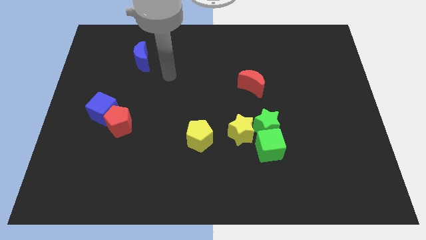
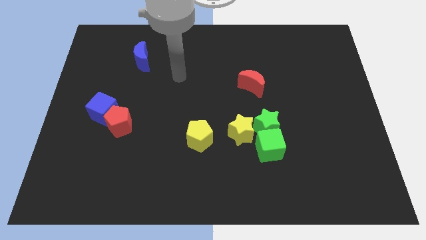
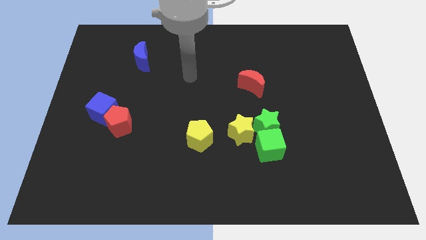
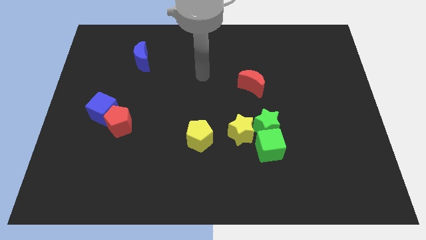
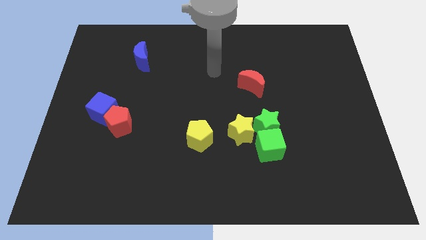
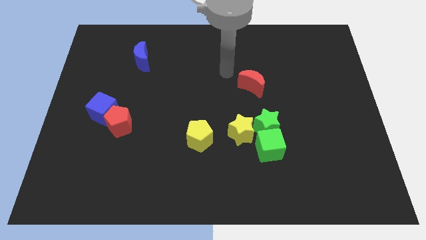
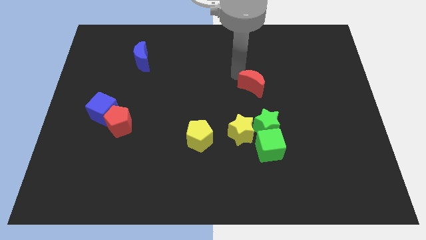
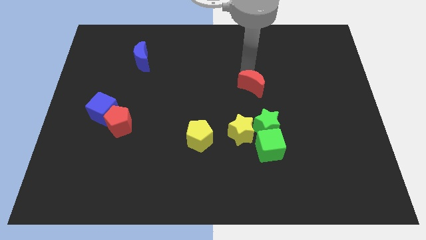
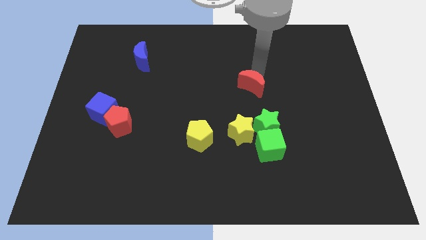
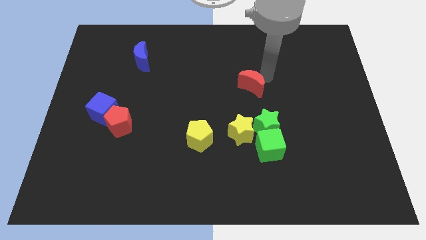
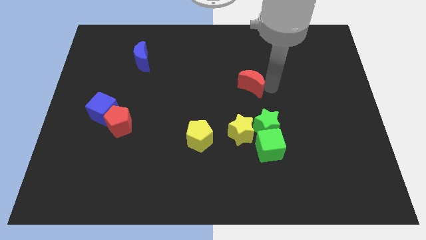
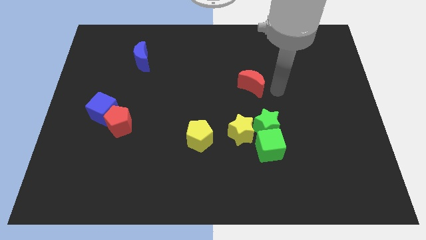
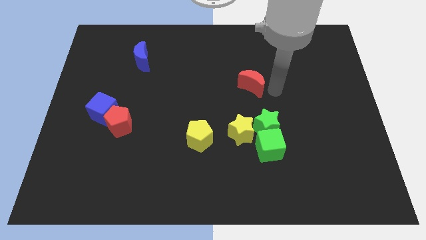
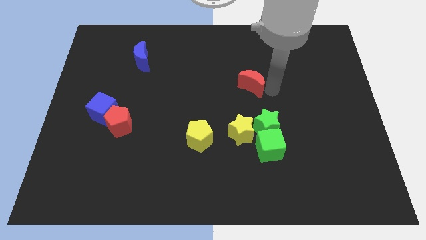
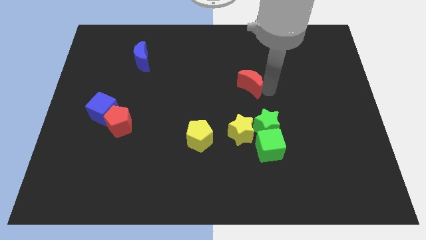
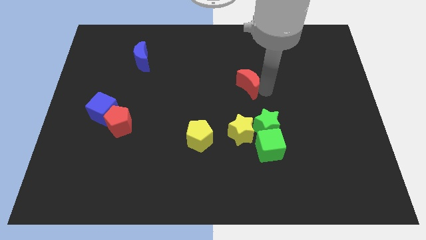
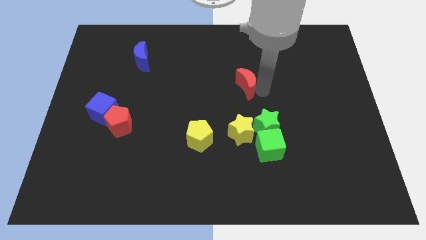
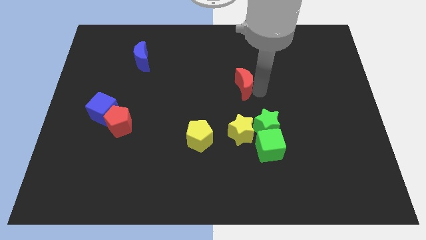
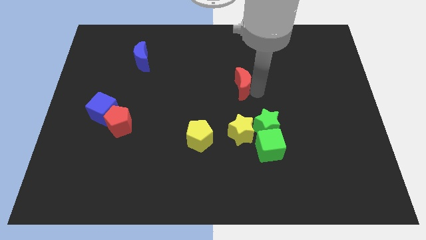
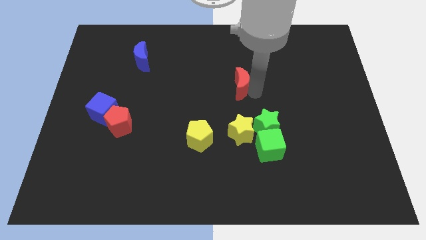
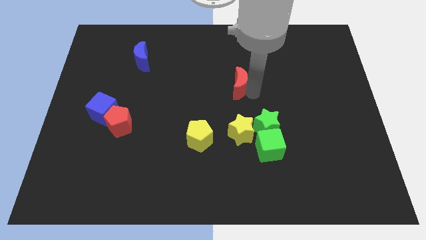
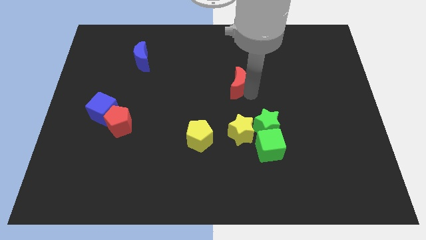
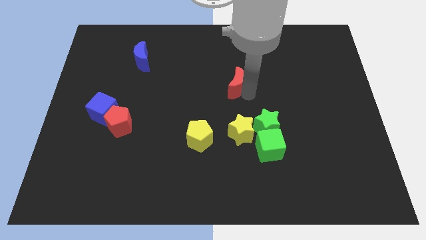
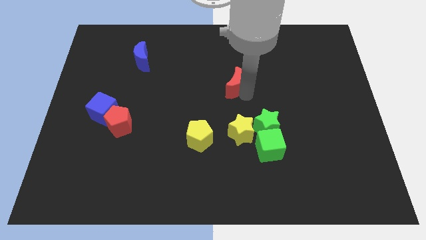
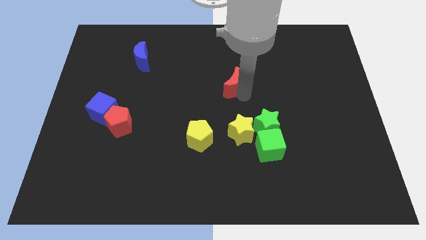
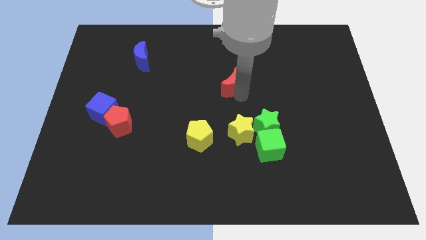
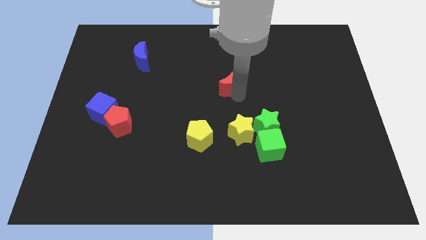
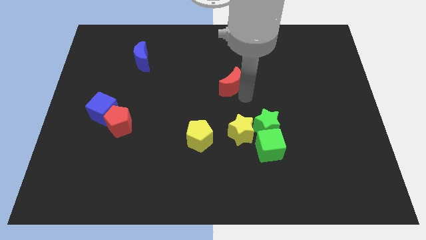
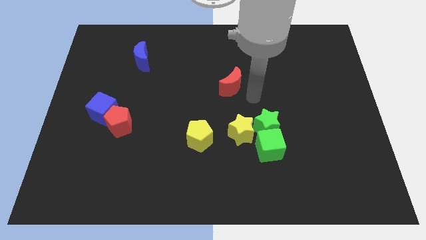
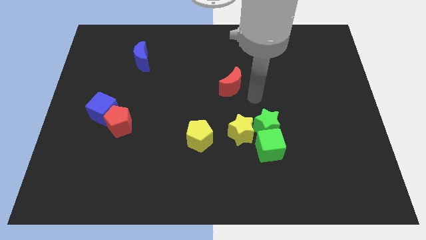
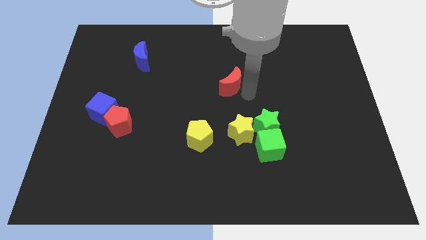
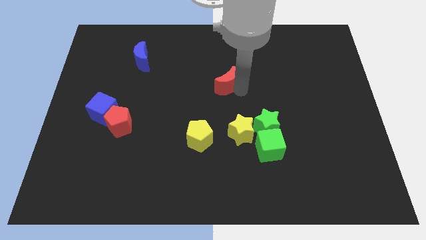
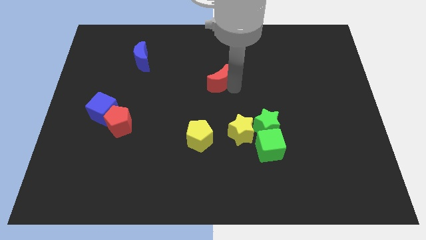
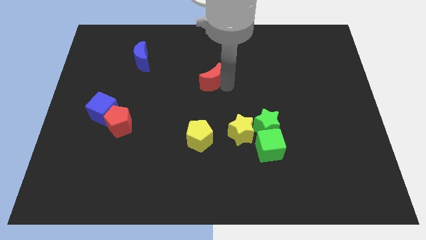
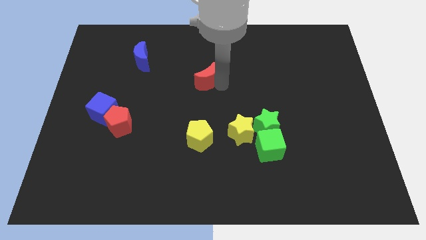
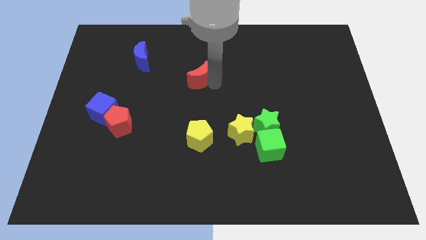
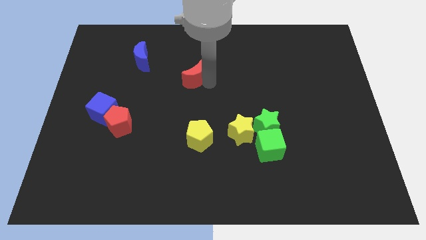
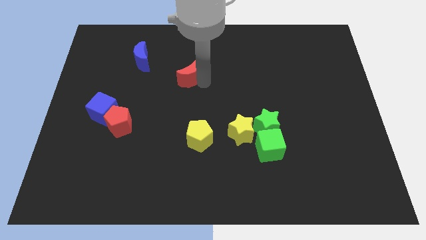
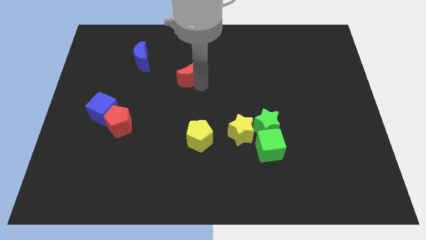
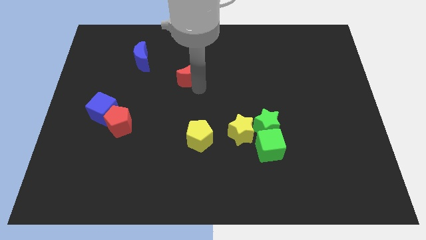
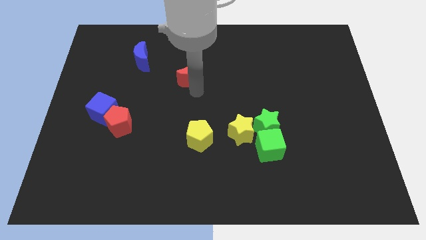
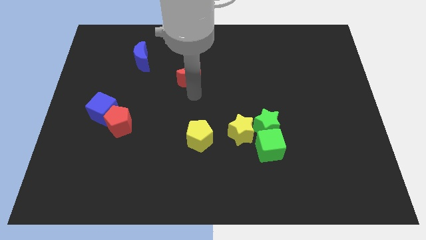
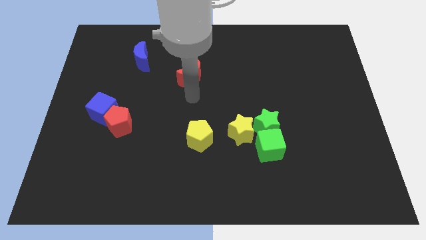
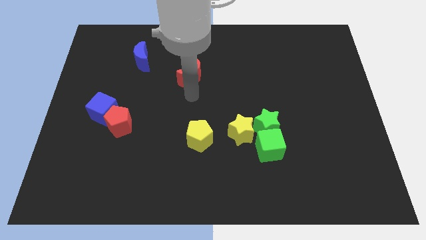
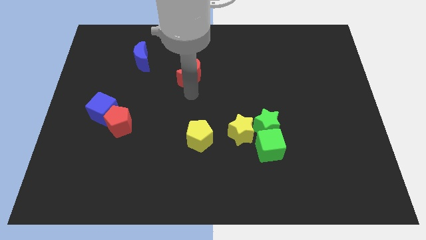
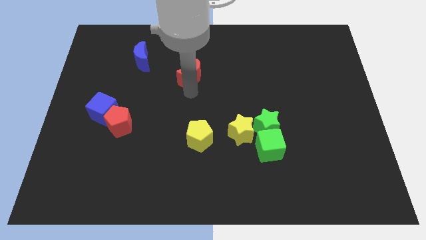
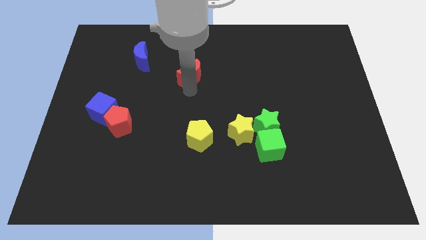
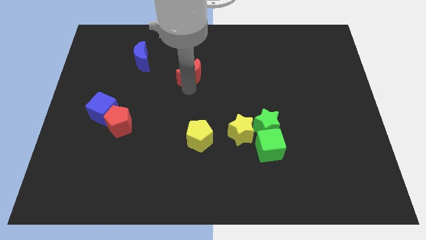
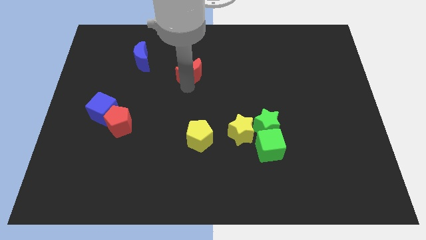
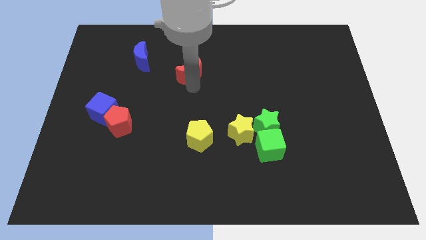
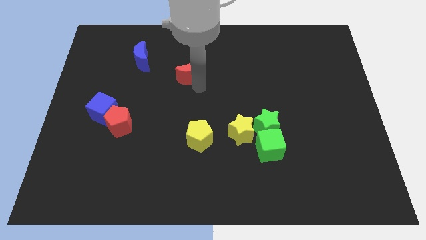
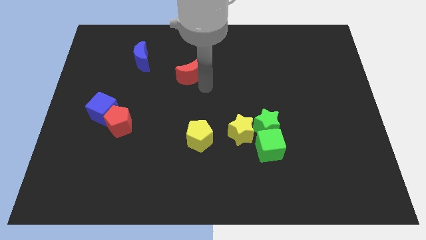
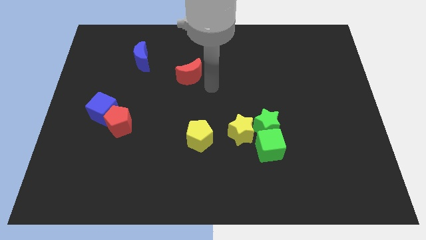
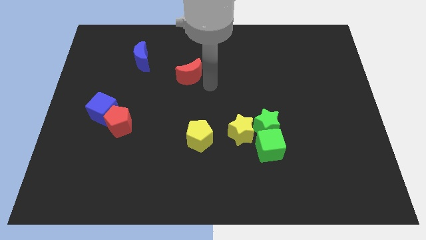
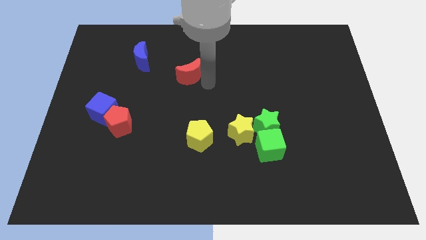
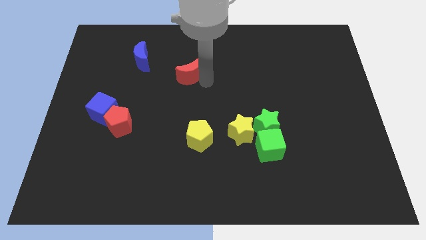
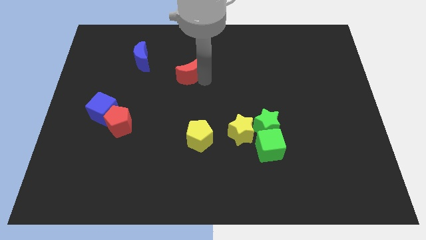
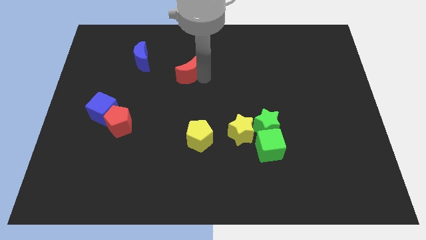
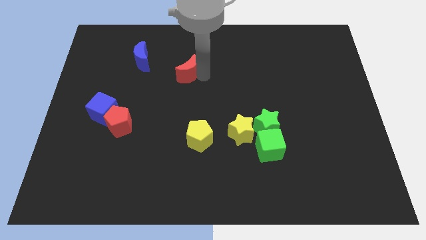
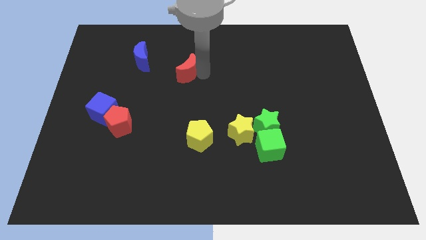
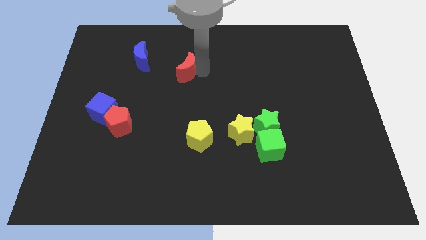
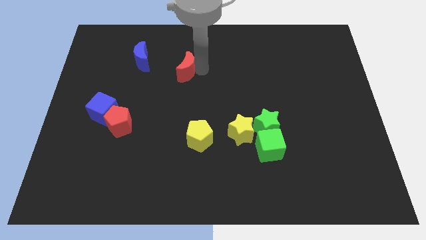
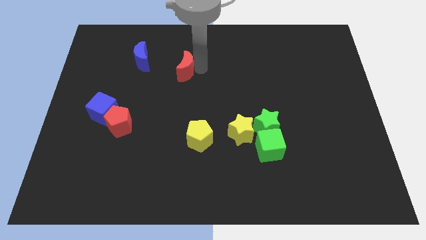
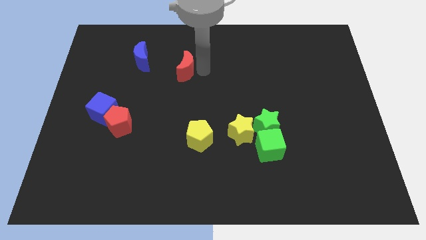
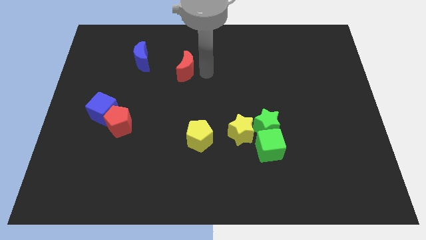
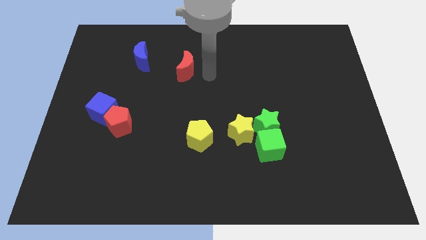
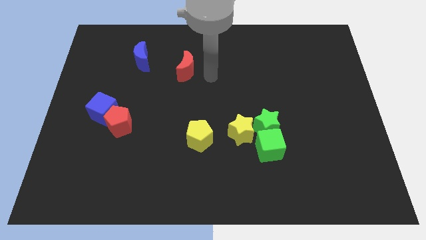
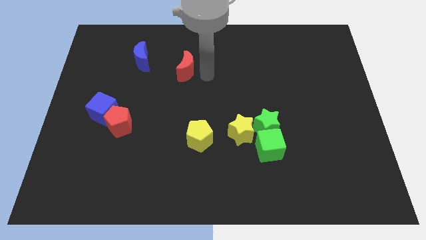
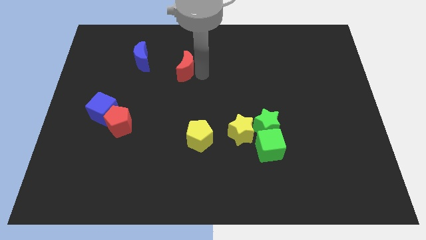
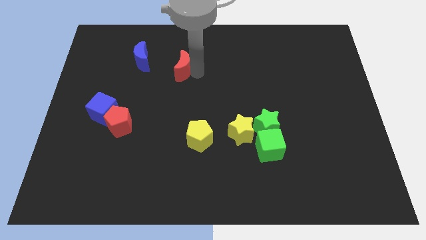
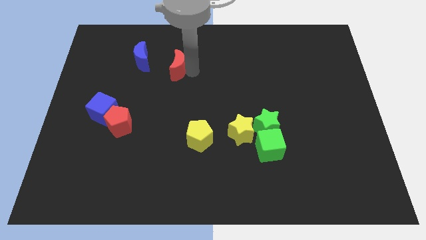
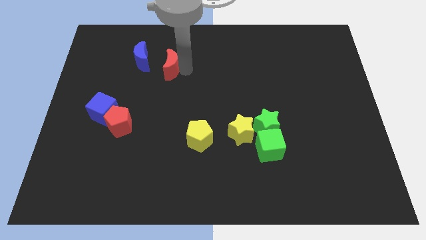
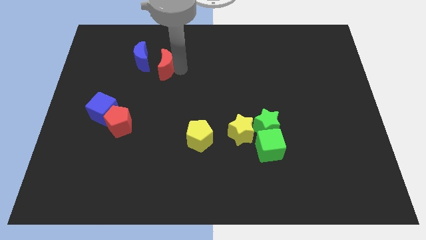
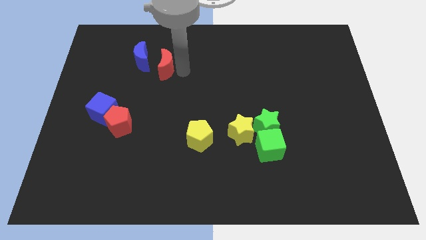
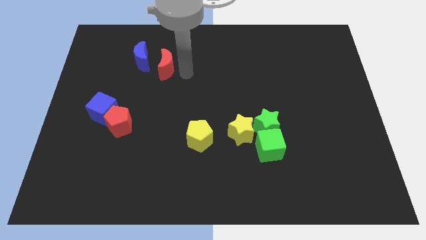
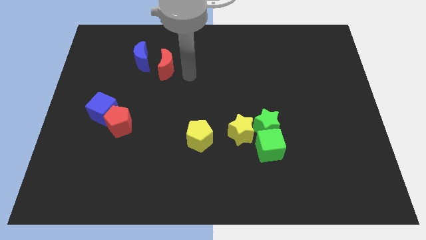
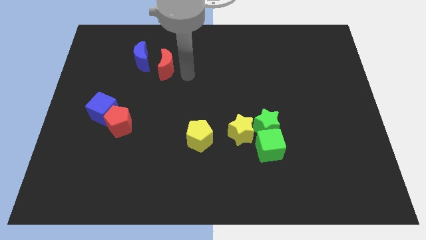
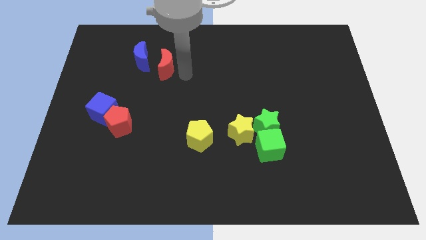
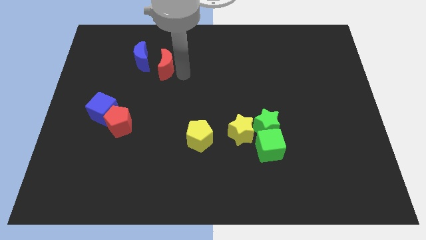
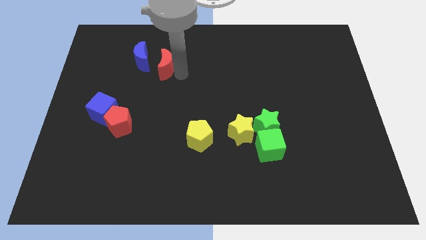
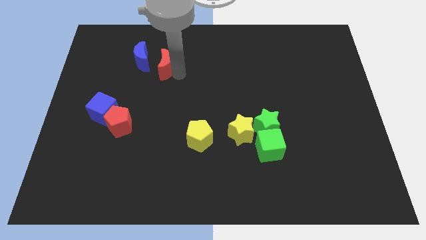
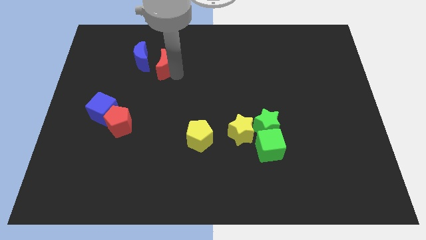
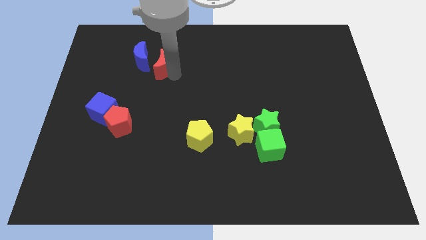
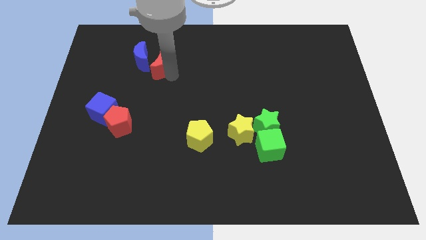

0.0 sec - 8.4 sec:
slide the red moon close to the blue moon
